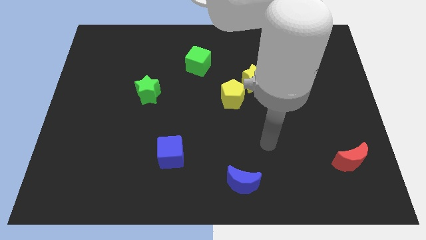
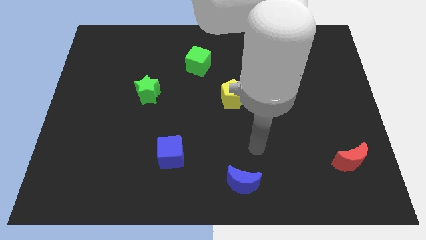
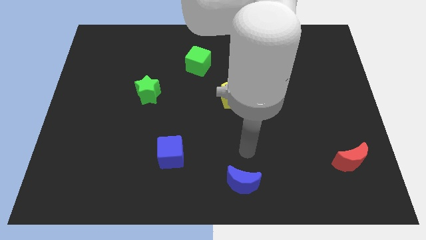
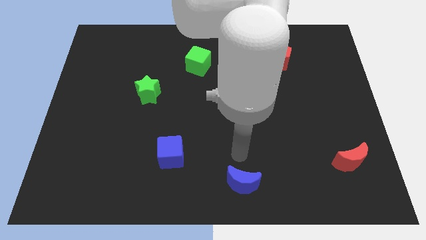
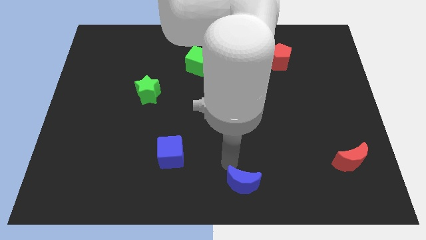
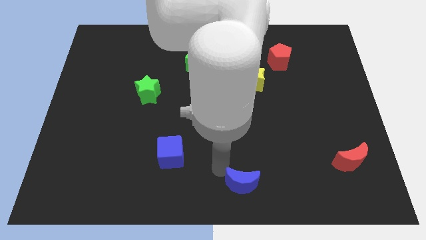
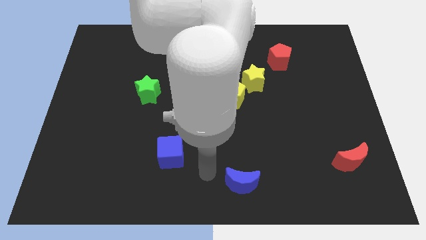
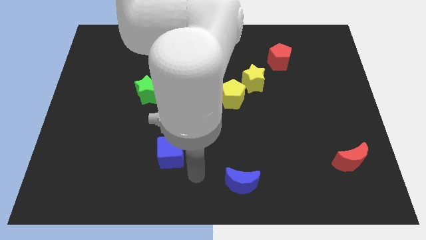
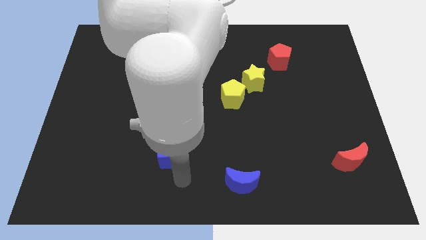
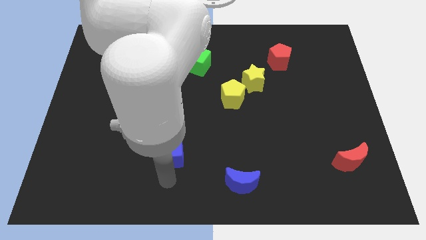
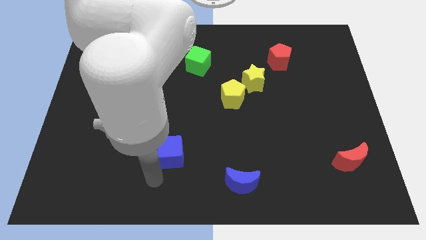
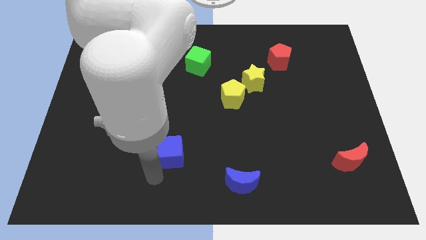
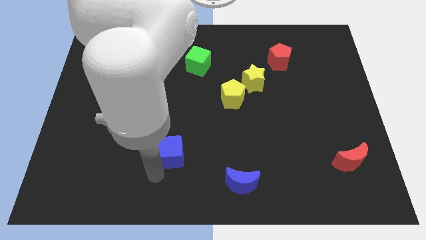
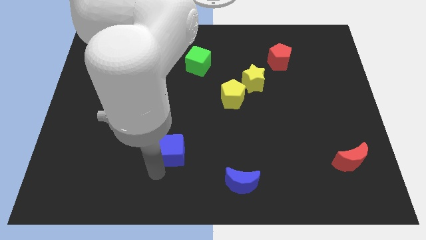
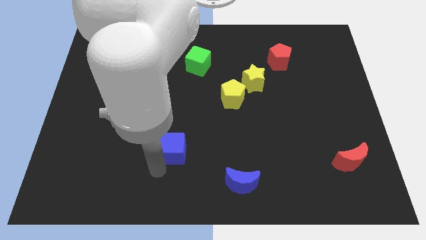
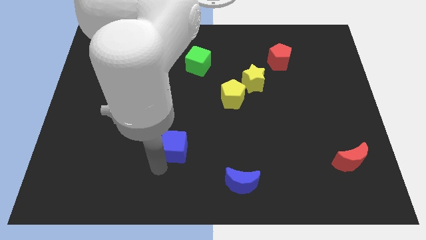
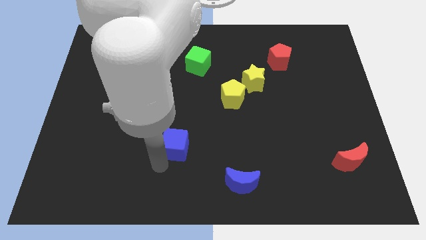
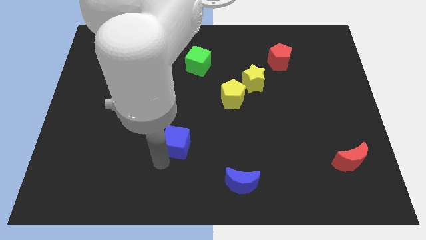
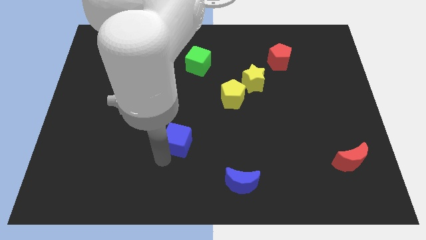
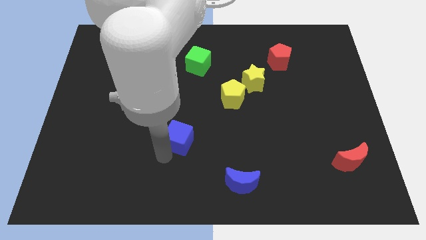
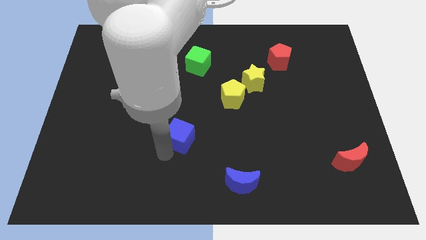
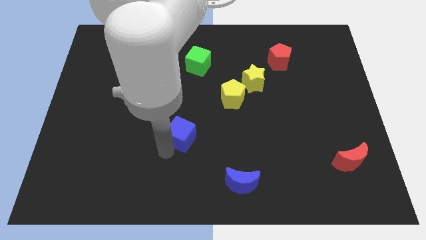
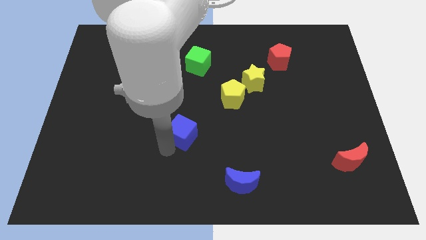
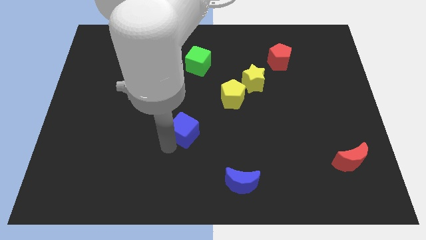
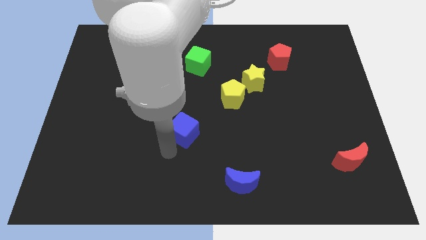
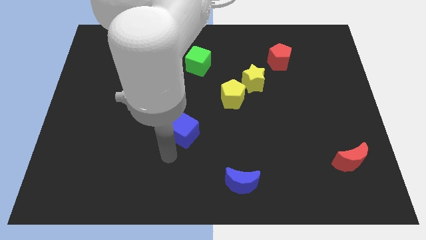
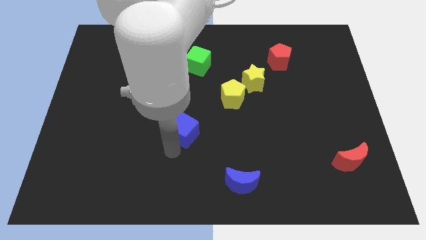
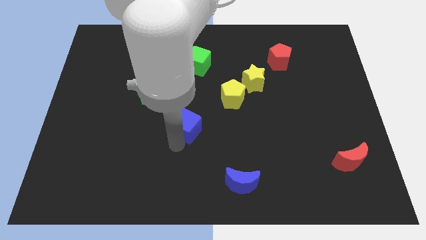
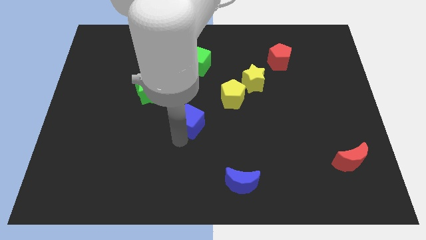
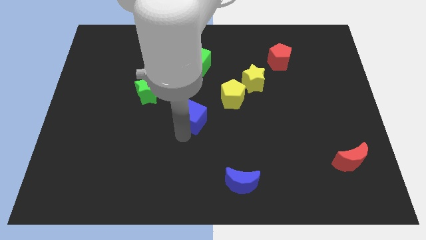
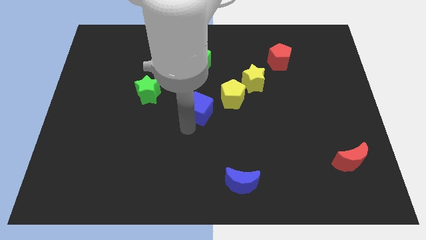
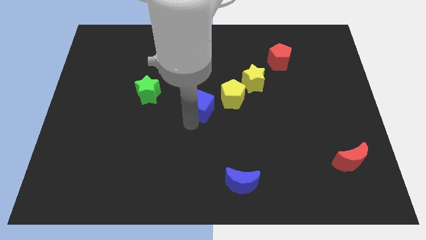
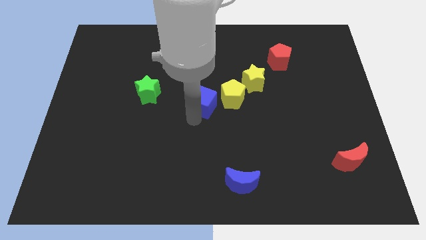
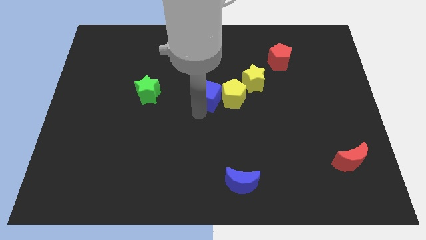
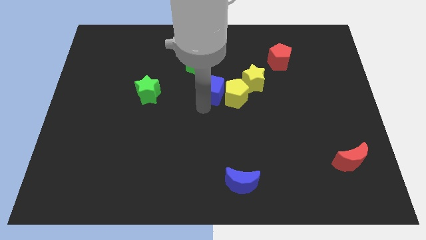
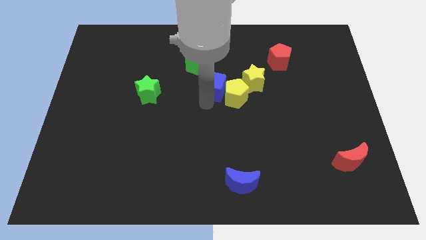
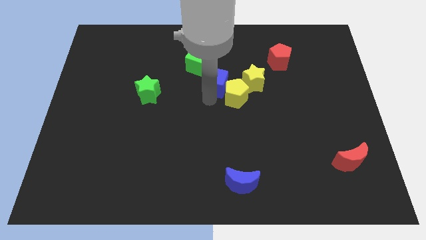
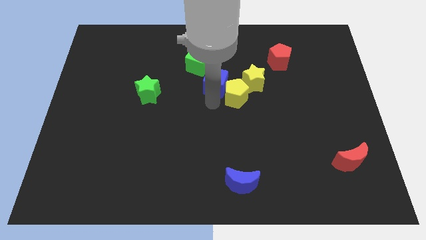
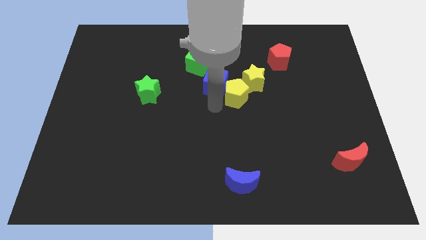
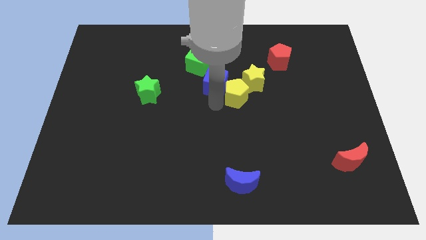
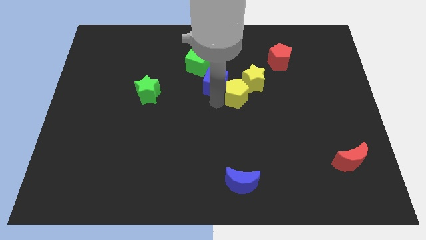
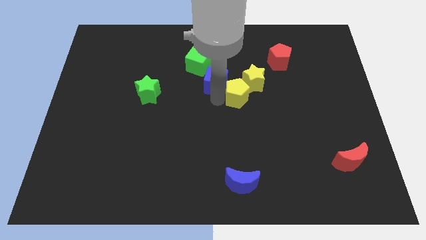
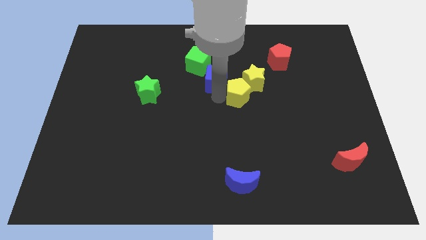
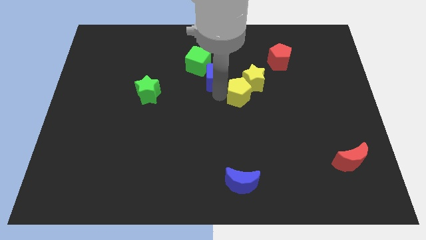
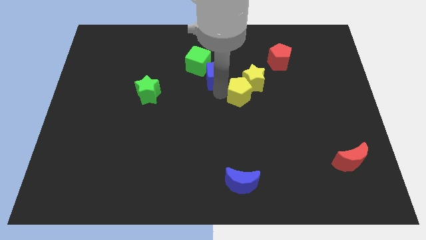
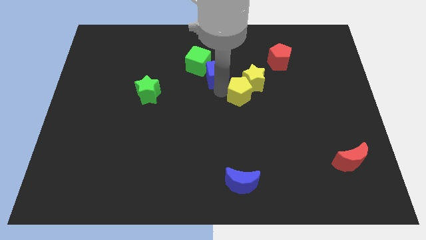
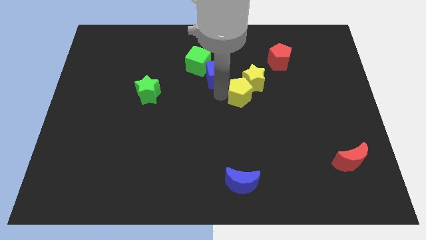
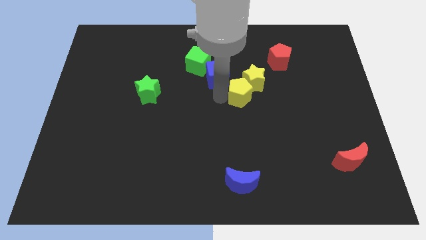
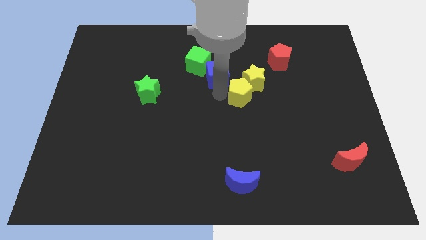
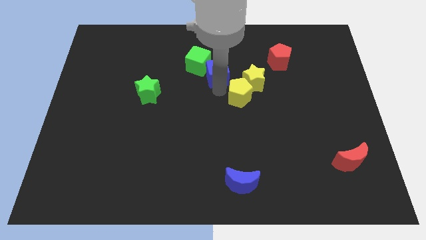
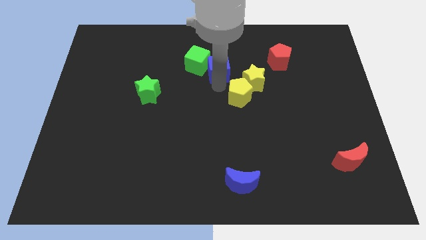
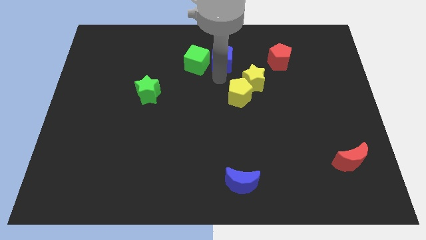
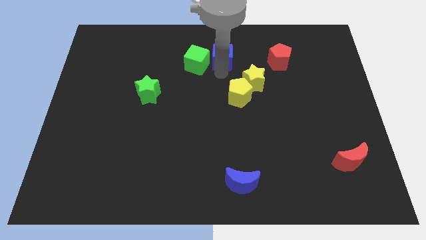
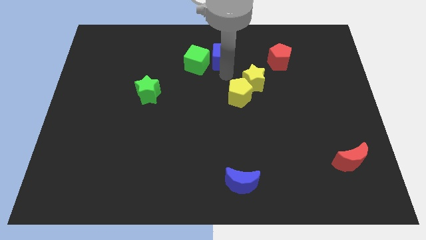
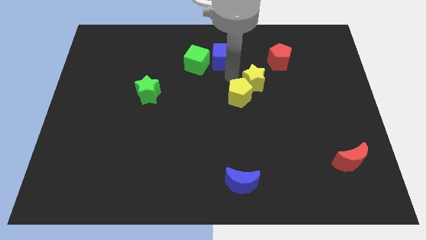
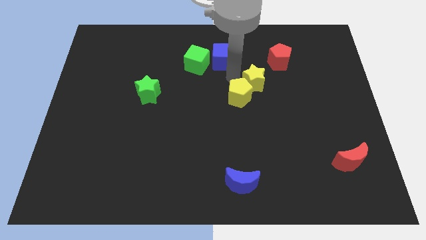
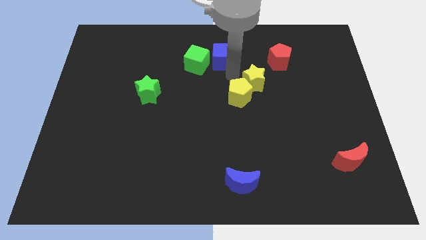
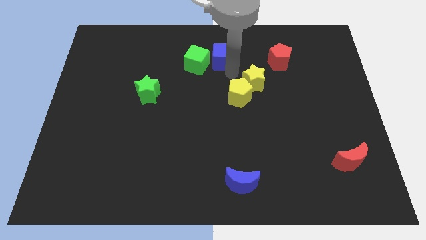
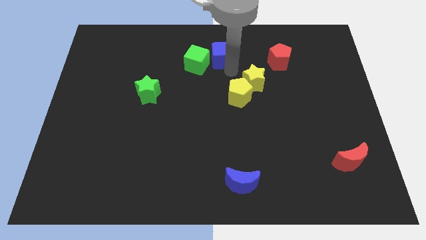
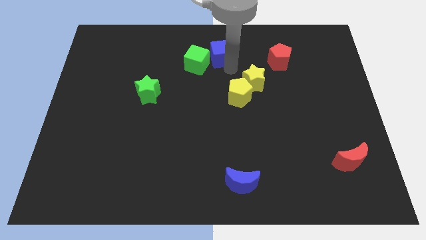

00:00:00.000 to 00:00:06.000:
push the blue cube to the towards your base
